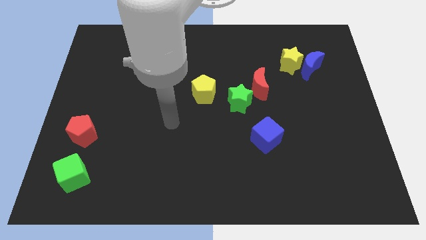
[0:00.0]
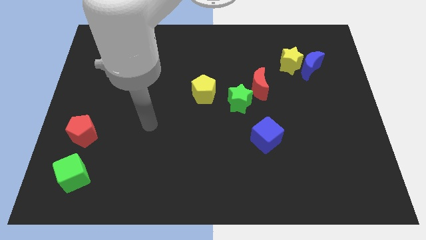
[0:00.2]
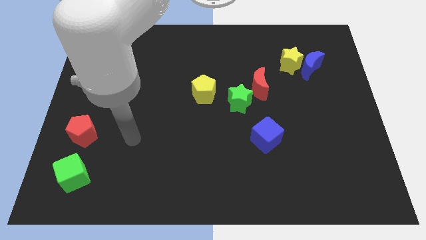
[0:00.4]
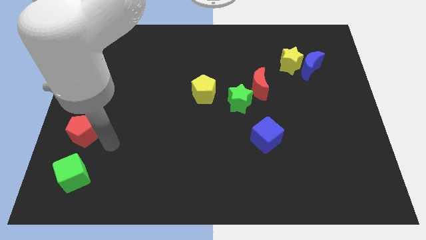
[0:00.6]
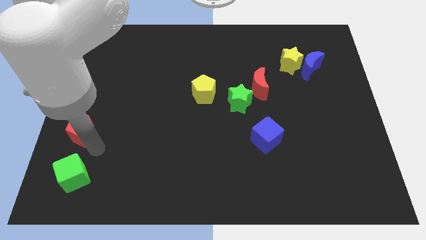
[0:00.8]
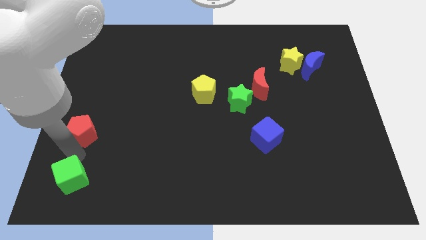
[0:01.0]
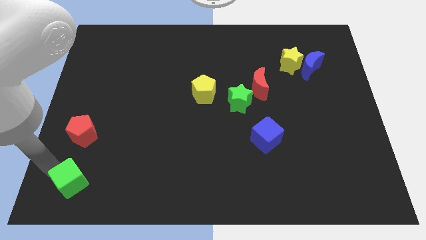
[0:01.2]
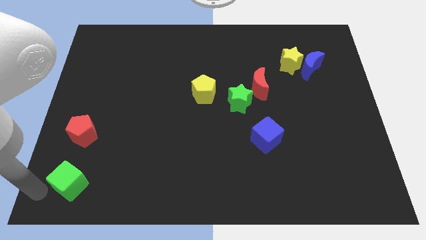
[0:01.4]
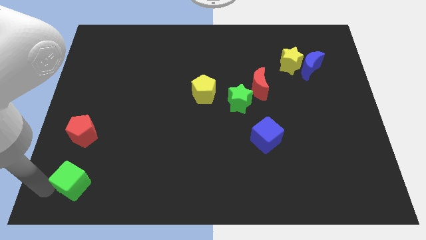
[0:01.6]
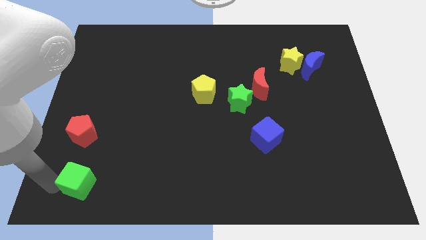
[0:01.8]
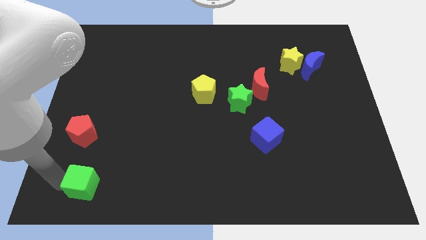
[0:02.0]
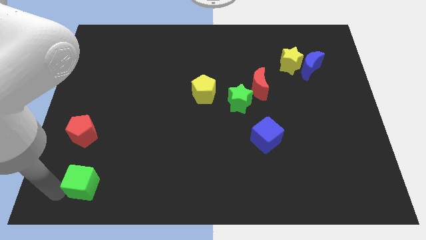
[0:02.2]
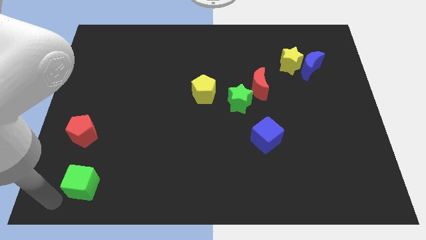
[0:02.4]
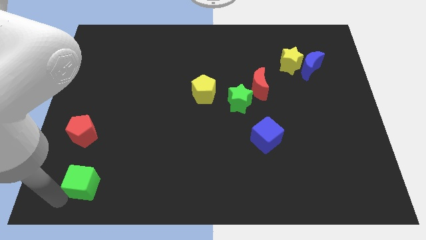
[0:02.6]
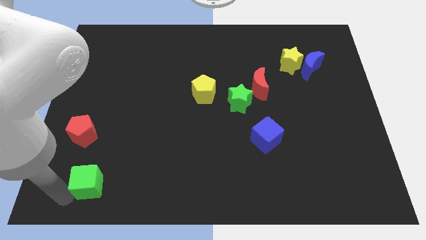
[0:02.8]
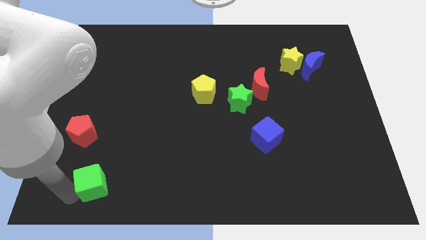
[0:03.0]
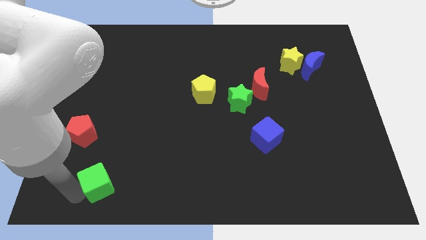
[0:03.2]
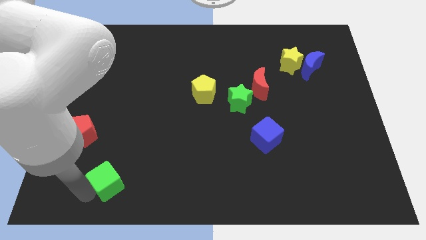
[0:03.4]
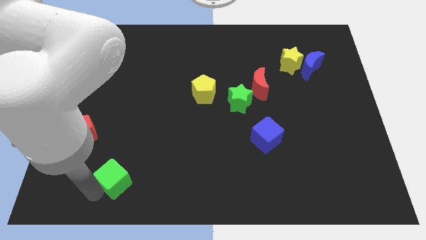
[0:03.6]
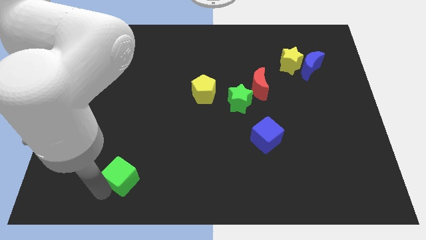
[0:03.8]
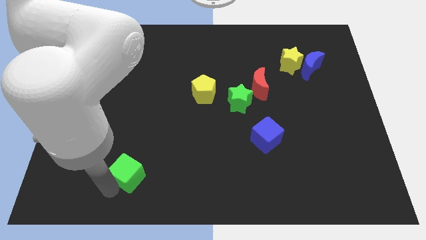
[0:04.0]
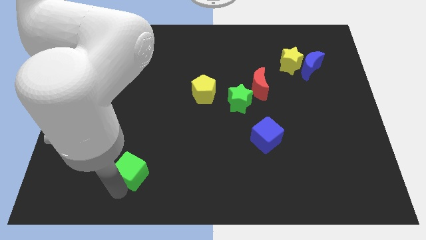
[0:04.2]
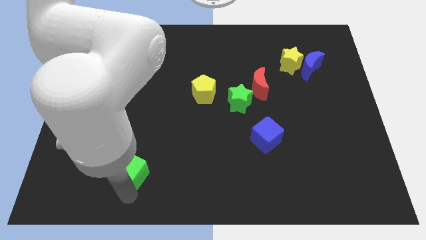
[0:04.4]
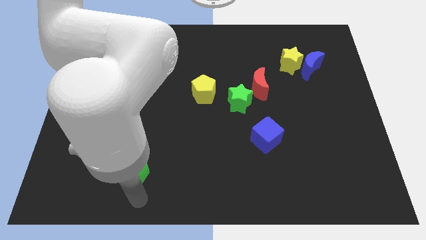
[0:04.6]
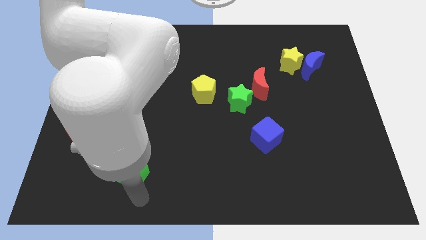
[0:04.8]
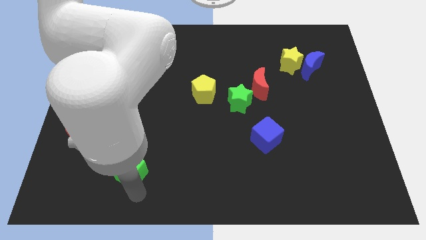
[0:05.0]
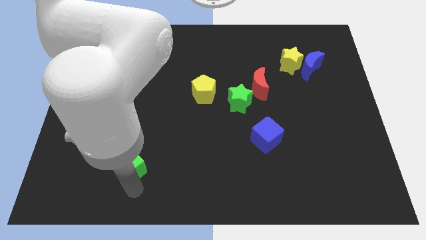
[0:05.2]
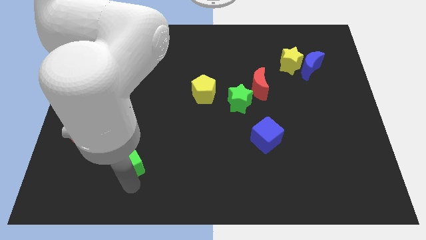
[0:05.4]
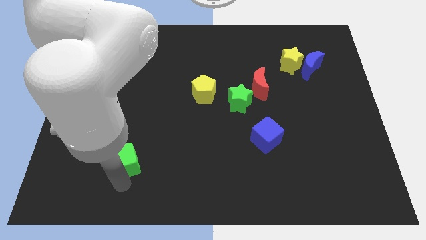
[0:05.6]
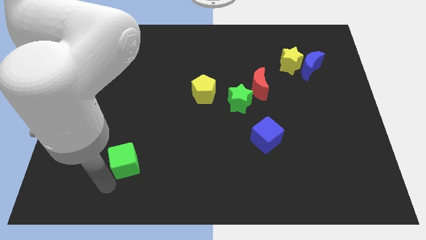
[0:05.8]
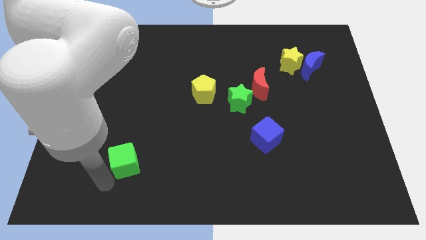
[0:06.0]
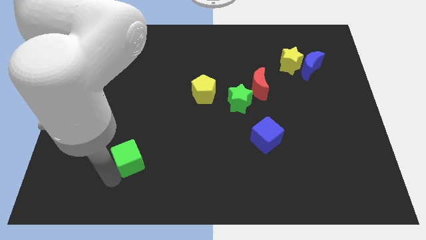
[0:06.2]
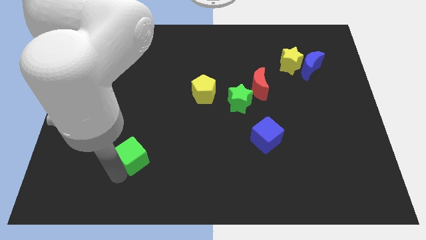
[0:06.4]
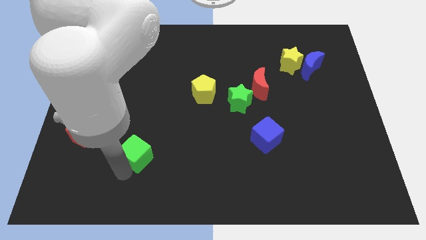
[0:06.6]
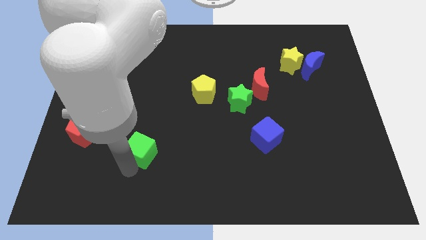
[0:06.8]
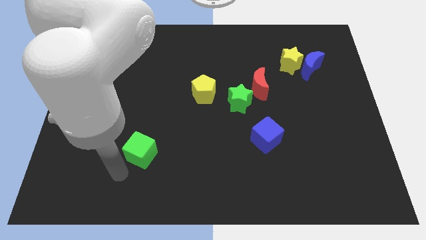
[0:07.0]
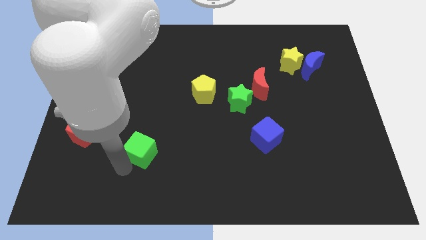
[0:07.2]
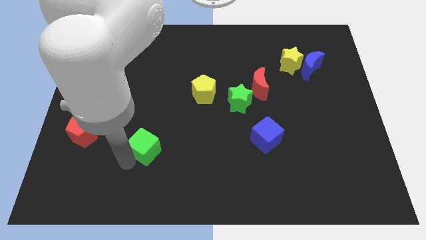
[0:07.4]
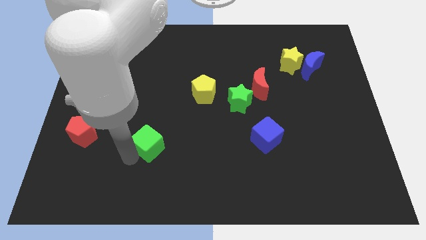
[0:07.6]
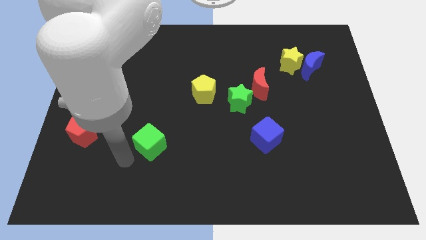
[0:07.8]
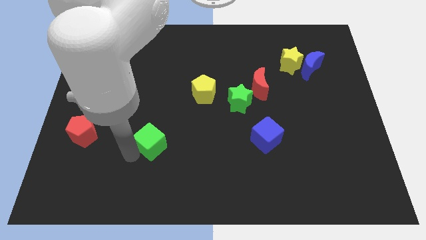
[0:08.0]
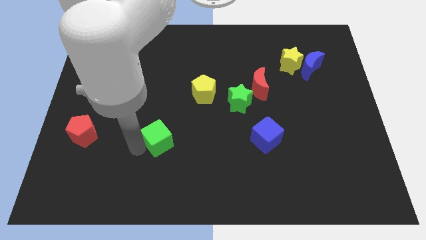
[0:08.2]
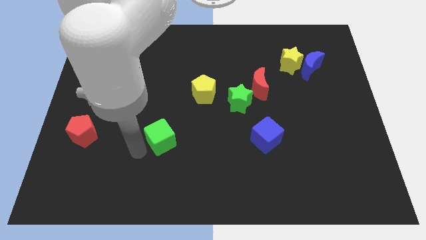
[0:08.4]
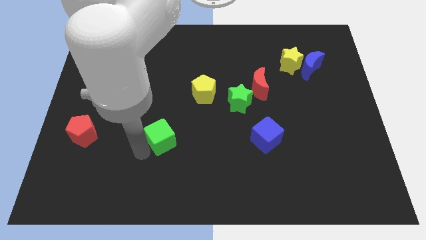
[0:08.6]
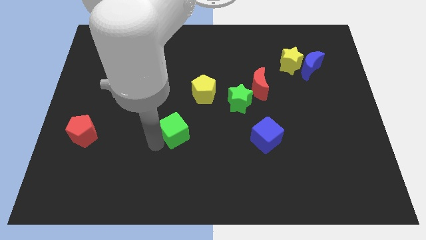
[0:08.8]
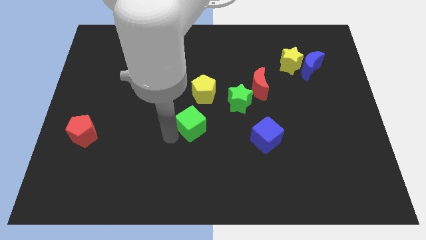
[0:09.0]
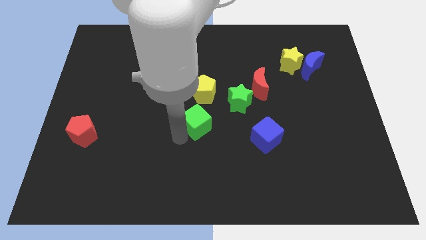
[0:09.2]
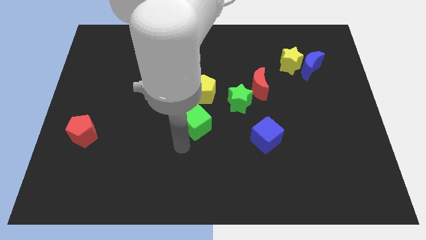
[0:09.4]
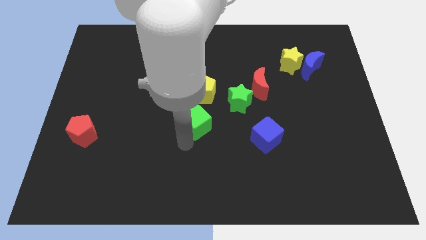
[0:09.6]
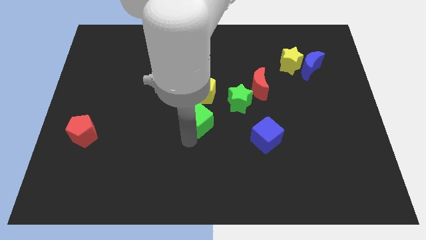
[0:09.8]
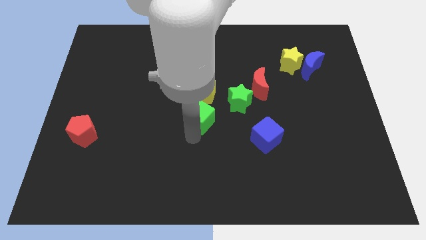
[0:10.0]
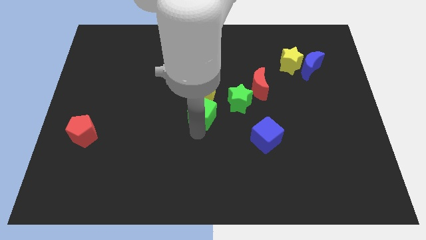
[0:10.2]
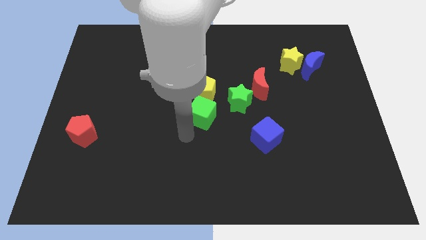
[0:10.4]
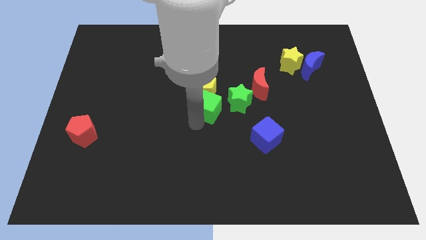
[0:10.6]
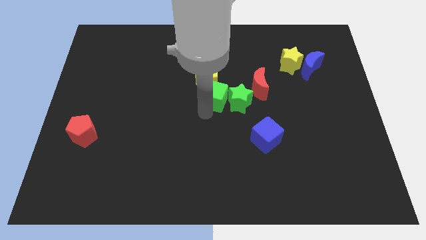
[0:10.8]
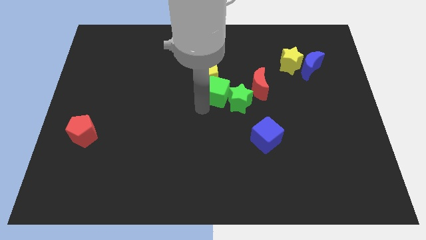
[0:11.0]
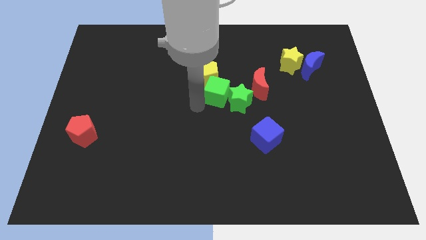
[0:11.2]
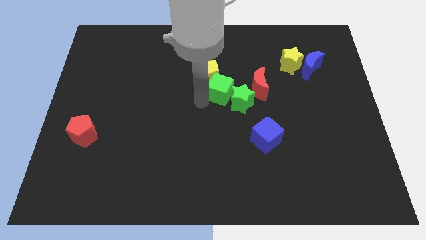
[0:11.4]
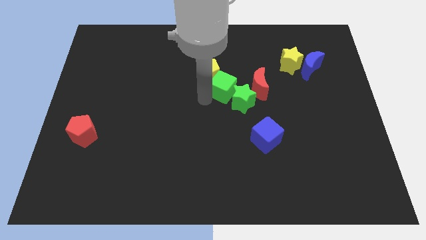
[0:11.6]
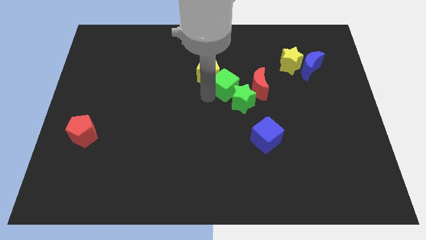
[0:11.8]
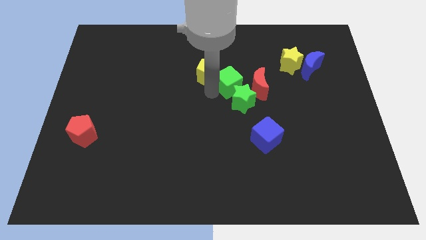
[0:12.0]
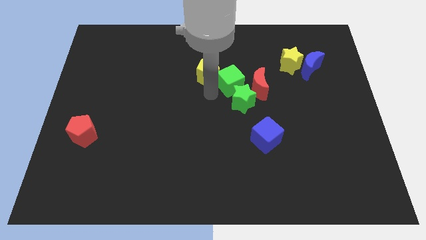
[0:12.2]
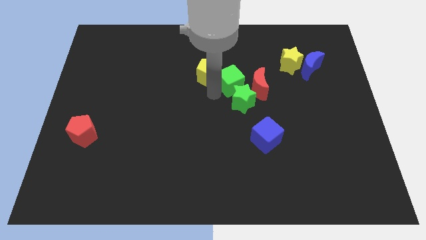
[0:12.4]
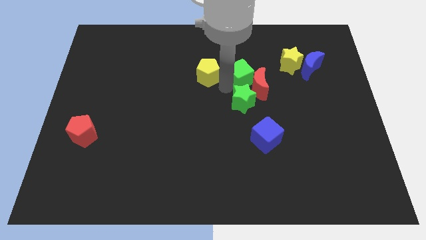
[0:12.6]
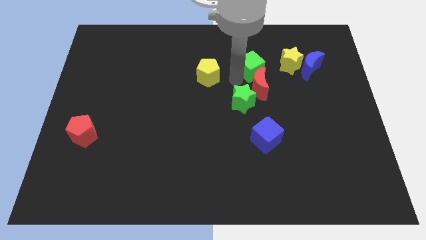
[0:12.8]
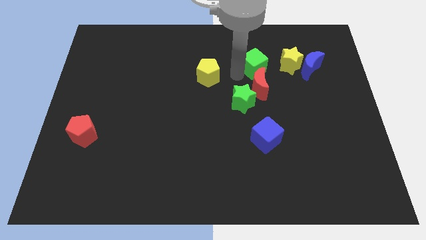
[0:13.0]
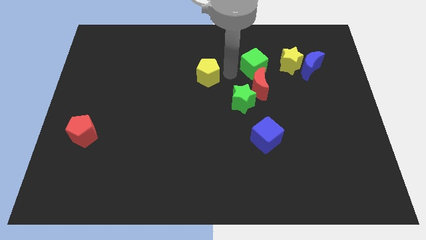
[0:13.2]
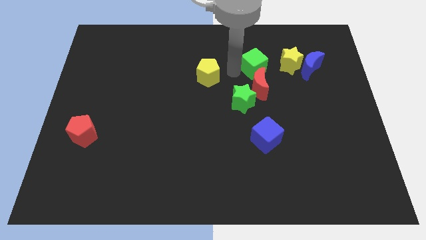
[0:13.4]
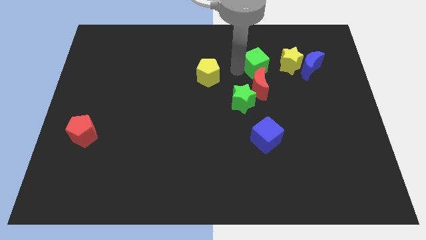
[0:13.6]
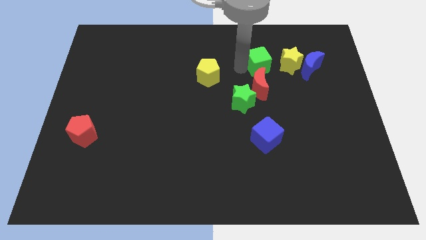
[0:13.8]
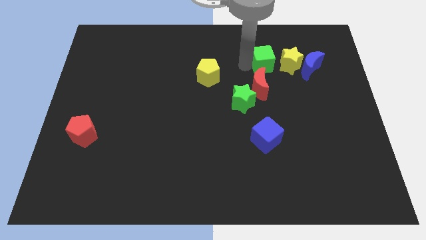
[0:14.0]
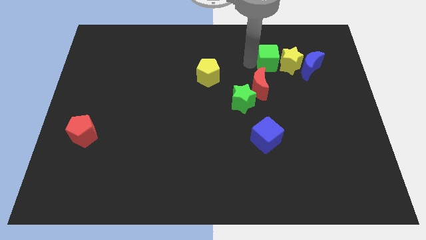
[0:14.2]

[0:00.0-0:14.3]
slide the green cube next to the yellow star
